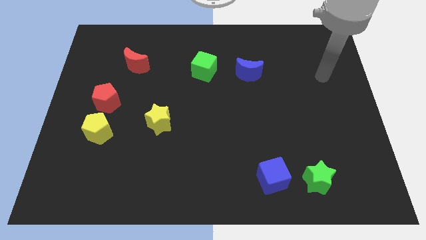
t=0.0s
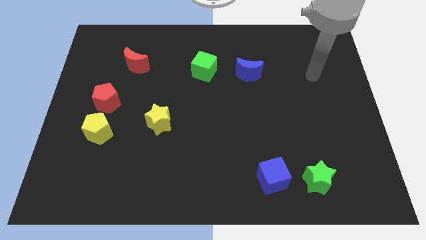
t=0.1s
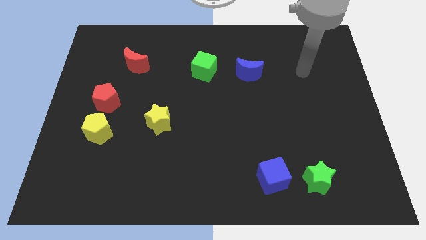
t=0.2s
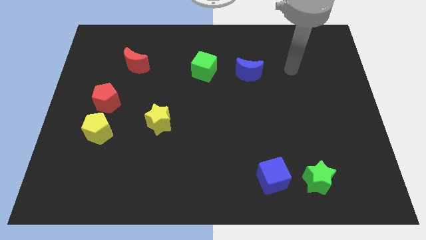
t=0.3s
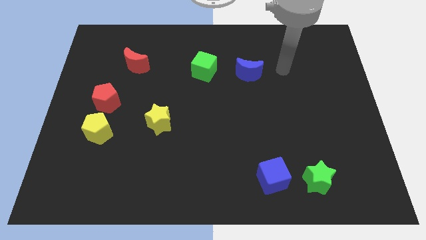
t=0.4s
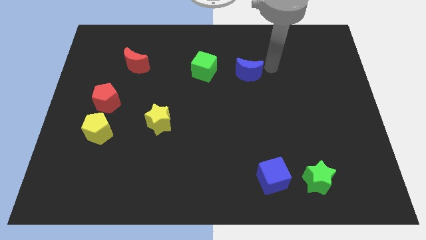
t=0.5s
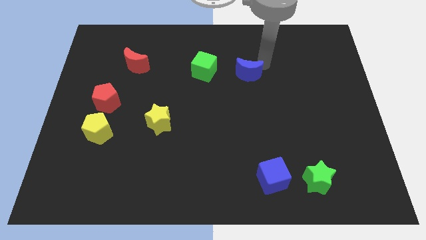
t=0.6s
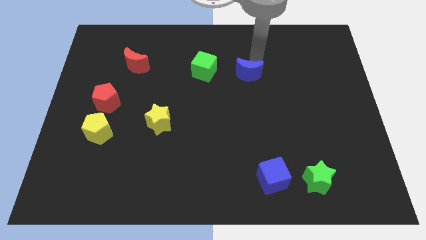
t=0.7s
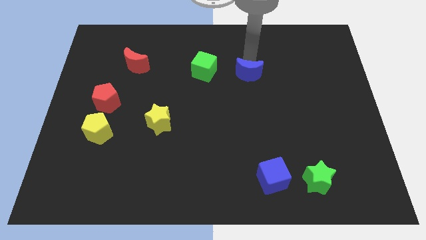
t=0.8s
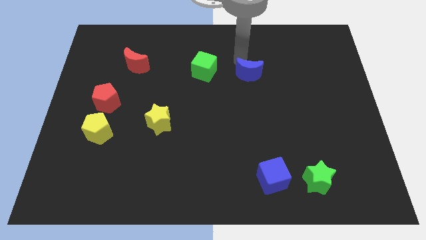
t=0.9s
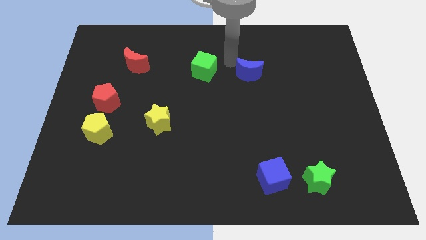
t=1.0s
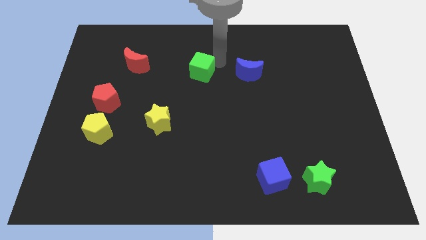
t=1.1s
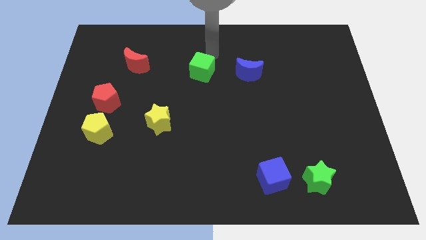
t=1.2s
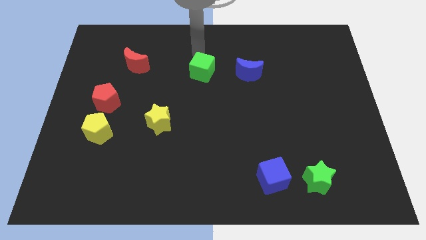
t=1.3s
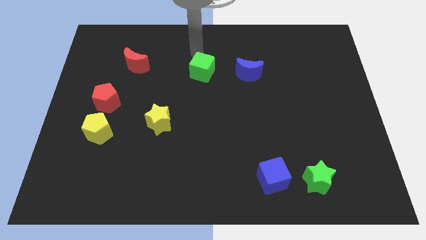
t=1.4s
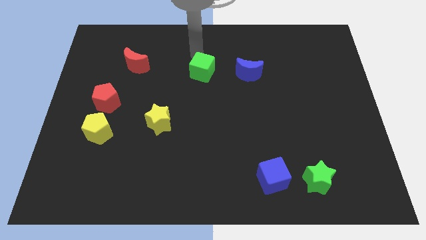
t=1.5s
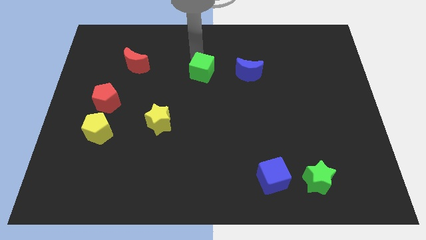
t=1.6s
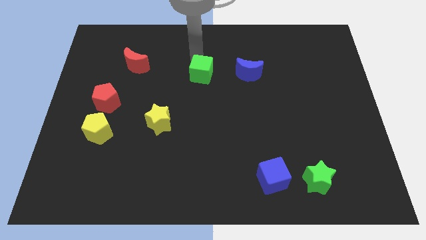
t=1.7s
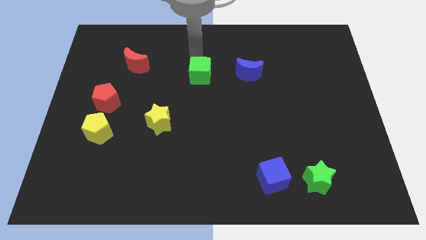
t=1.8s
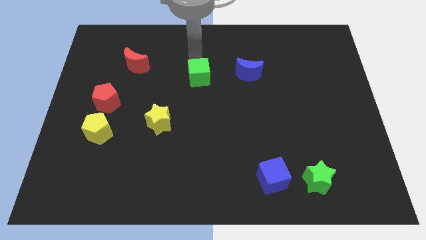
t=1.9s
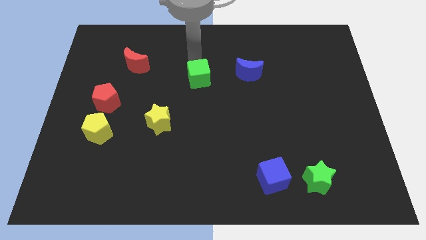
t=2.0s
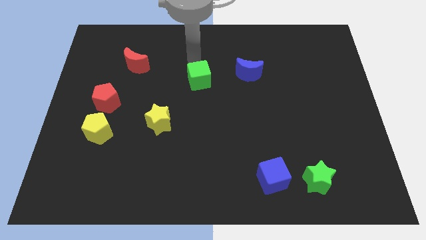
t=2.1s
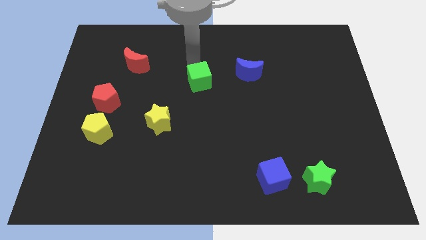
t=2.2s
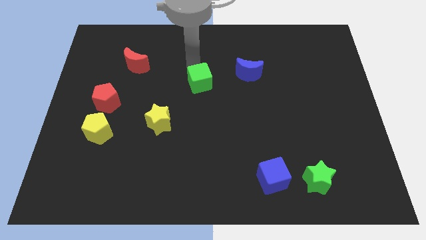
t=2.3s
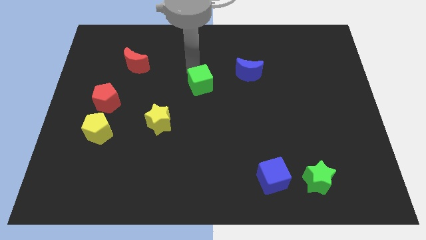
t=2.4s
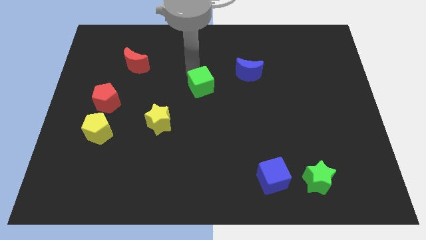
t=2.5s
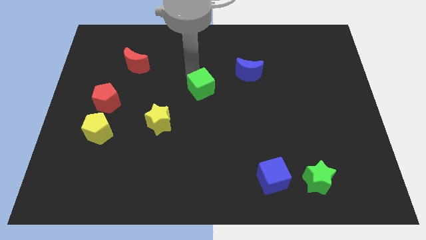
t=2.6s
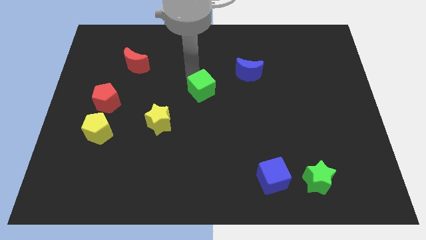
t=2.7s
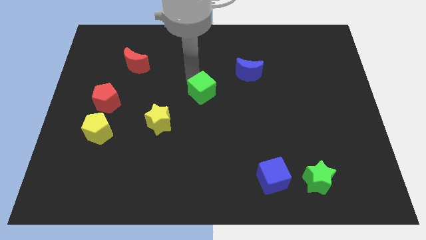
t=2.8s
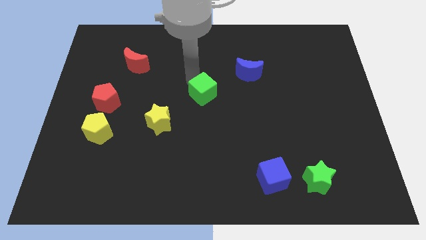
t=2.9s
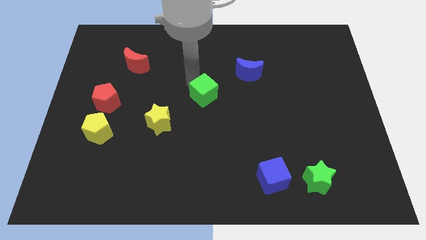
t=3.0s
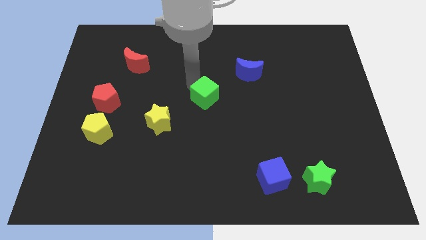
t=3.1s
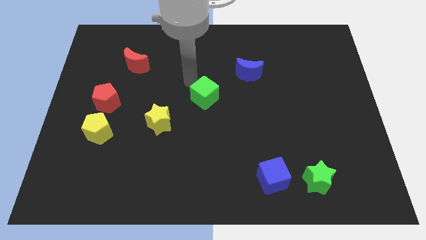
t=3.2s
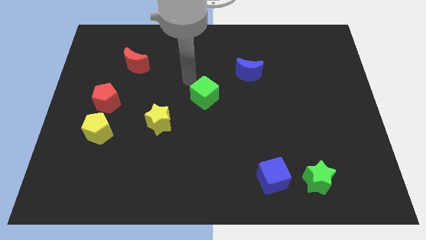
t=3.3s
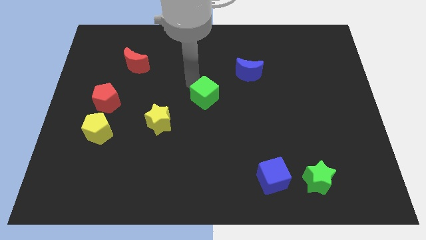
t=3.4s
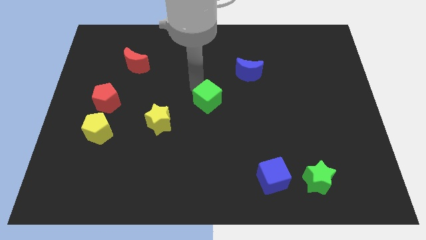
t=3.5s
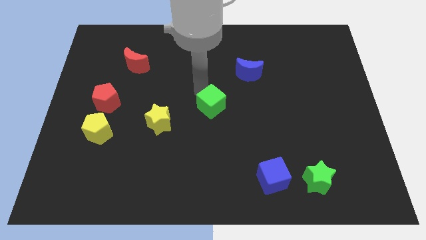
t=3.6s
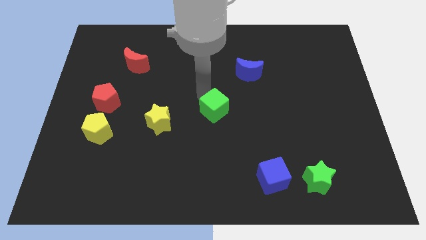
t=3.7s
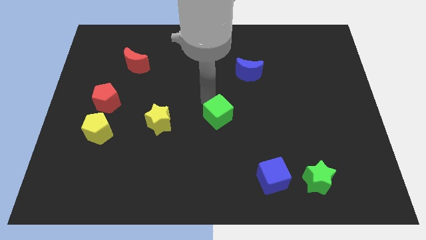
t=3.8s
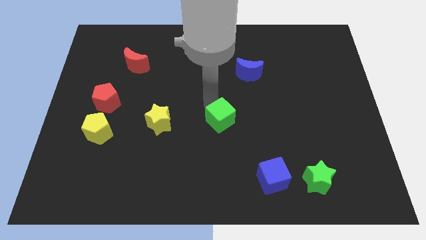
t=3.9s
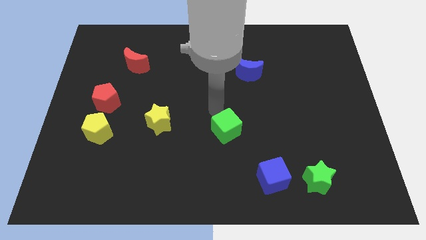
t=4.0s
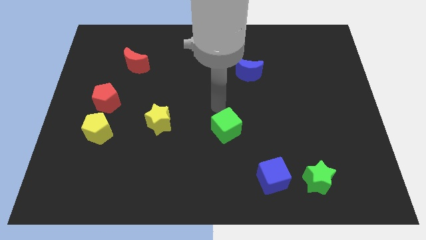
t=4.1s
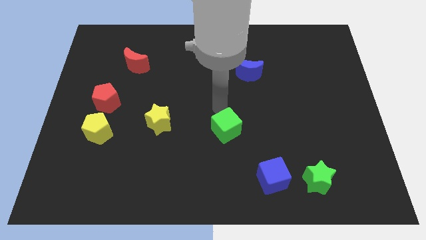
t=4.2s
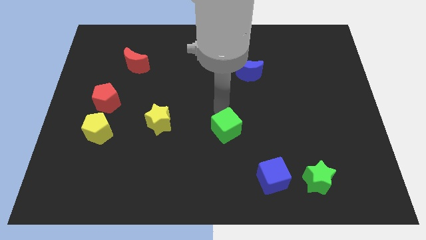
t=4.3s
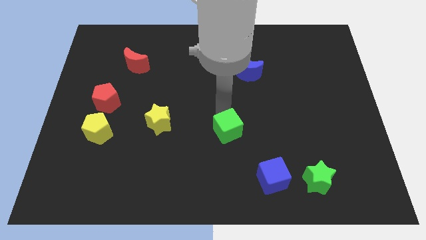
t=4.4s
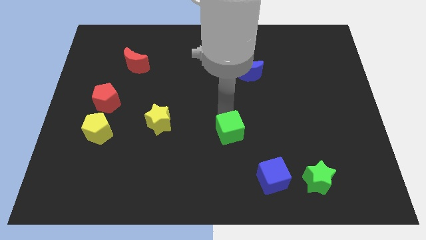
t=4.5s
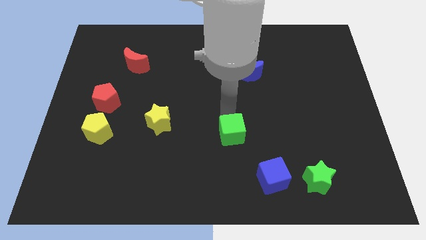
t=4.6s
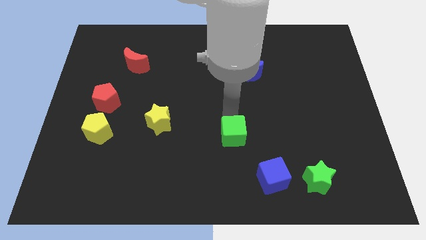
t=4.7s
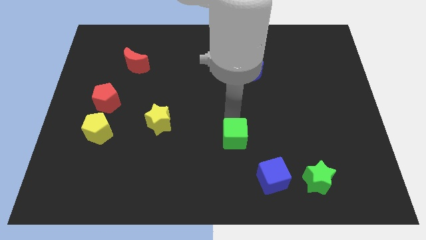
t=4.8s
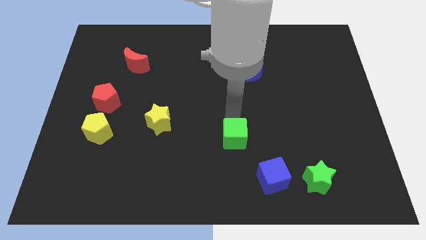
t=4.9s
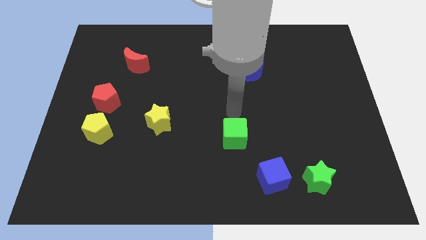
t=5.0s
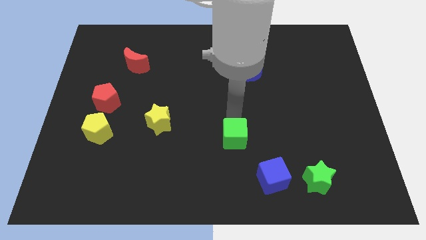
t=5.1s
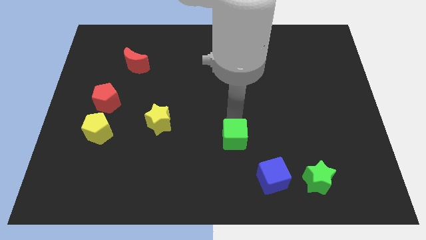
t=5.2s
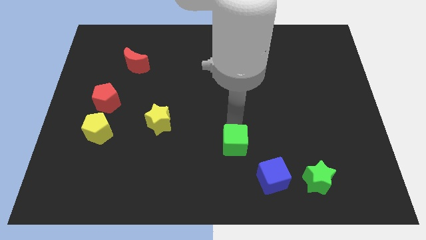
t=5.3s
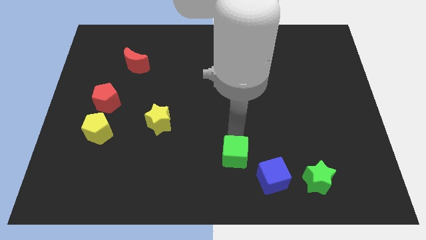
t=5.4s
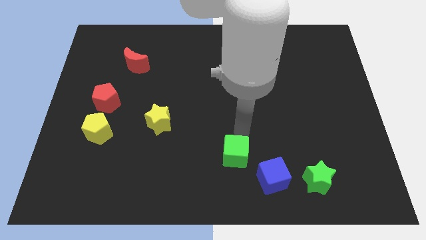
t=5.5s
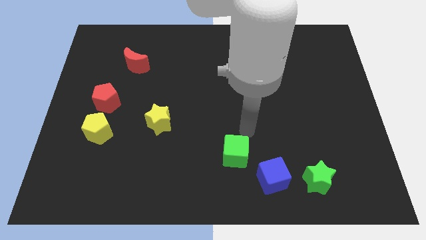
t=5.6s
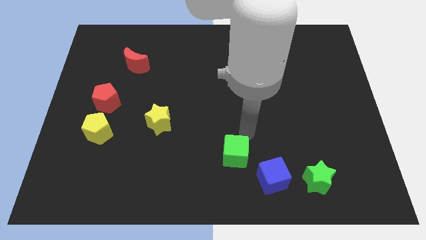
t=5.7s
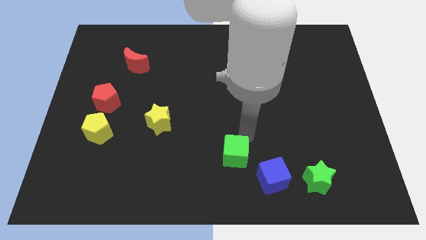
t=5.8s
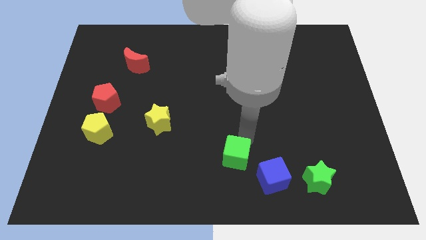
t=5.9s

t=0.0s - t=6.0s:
slide the green cube to the bottom

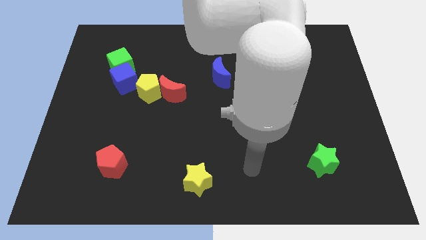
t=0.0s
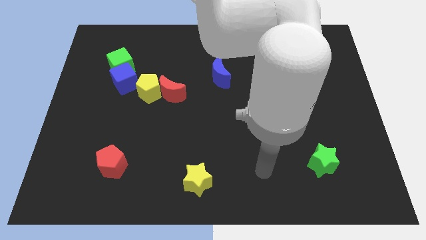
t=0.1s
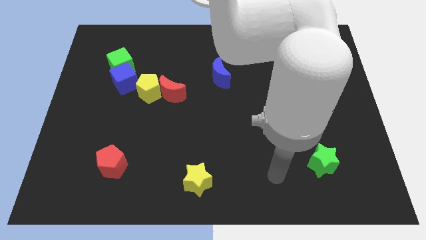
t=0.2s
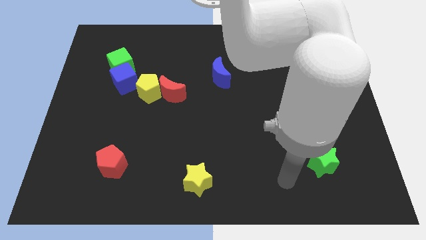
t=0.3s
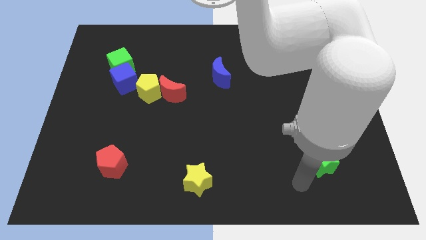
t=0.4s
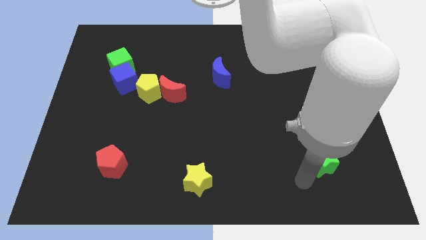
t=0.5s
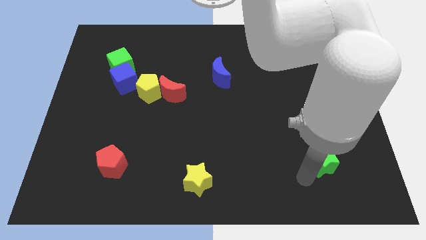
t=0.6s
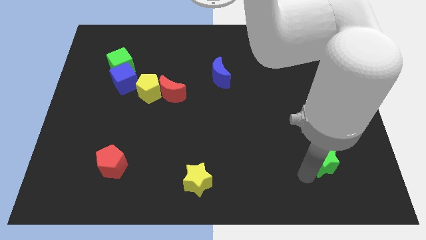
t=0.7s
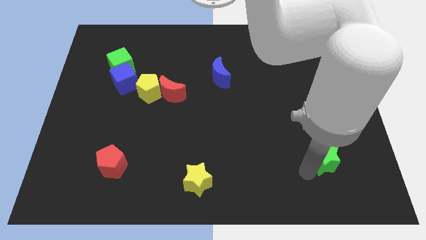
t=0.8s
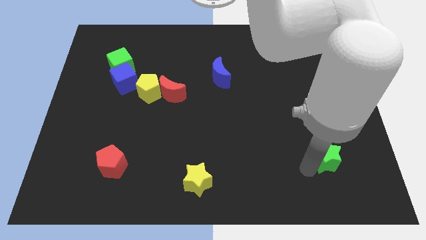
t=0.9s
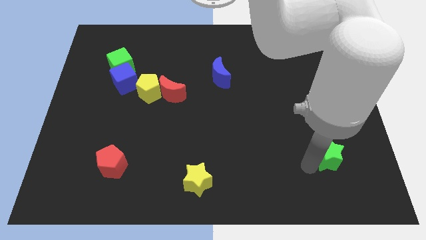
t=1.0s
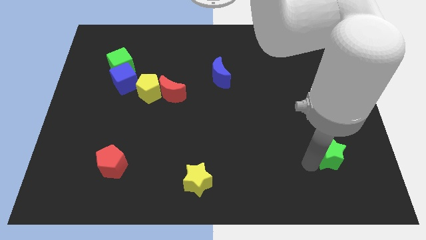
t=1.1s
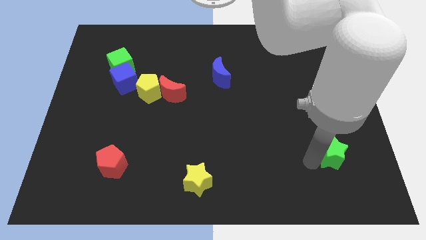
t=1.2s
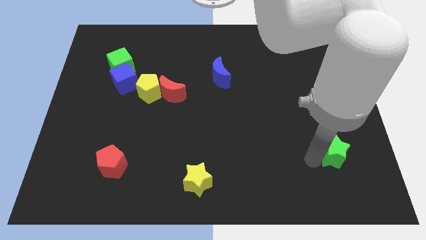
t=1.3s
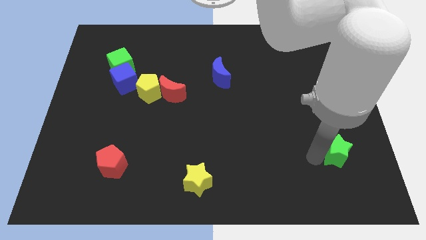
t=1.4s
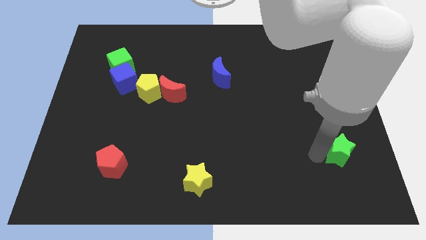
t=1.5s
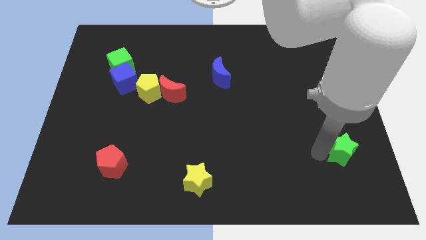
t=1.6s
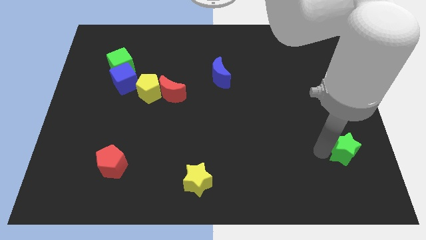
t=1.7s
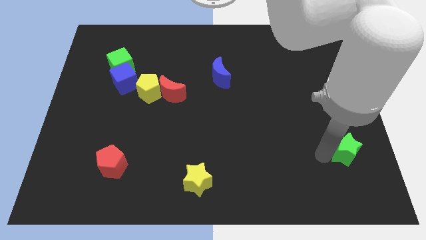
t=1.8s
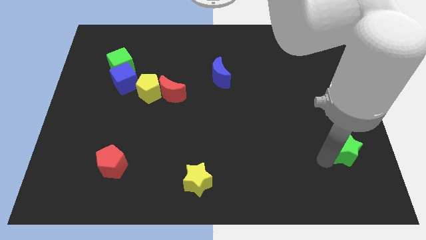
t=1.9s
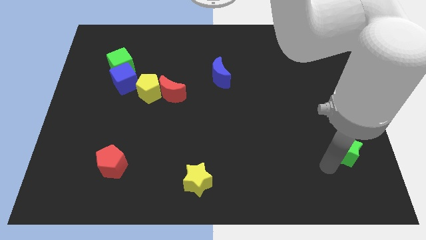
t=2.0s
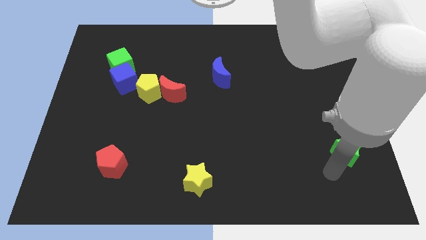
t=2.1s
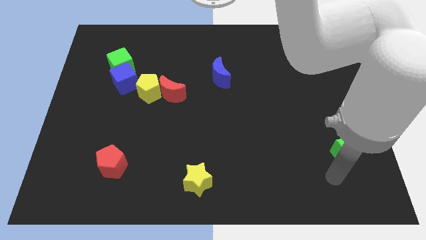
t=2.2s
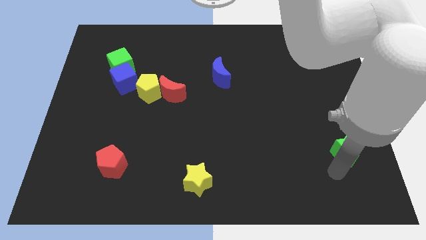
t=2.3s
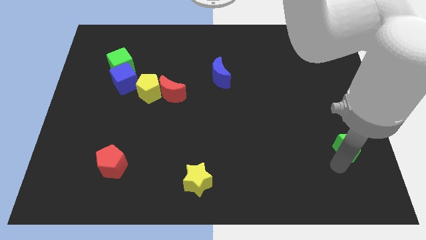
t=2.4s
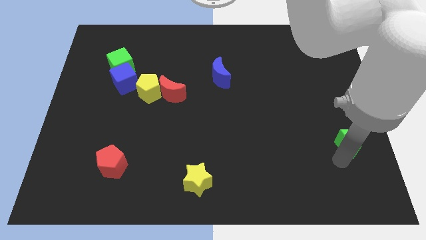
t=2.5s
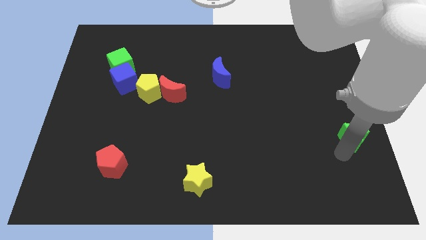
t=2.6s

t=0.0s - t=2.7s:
put the green star to the right side
